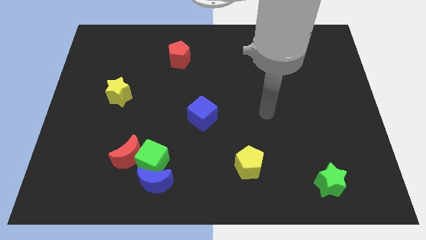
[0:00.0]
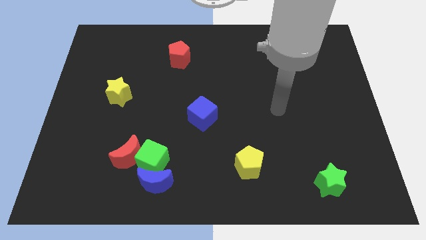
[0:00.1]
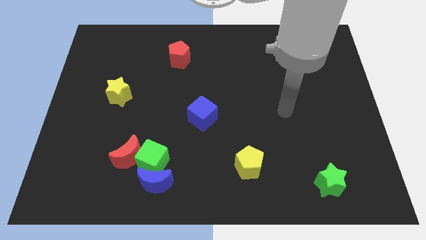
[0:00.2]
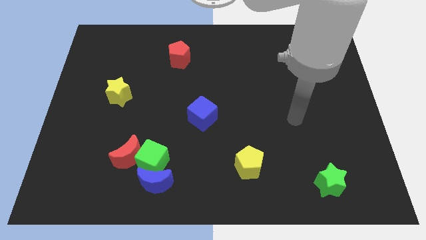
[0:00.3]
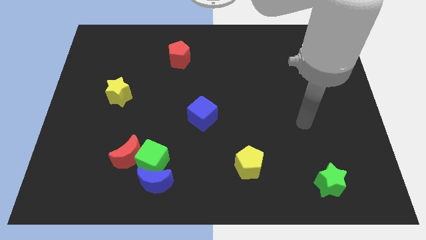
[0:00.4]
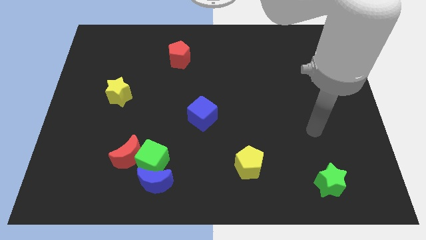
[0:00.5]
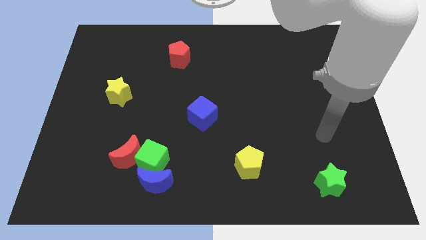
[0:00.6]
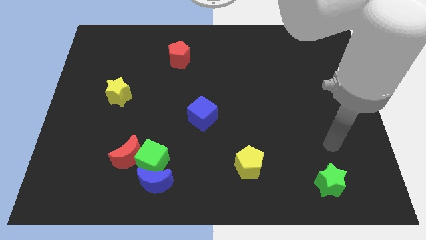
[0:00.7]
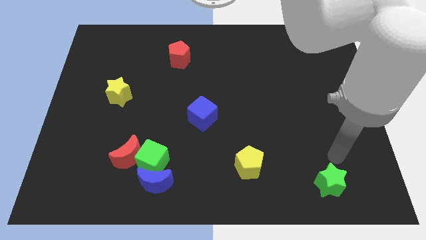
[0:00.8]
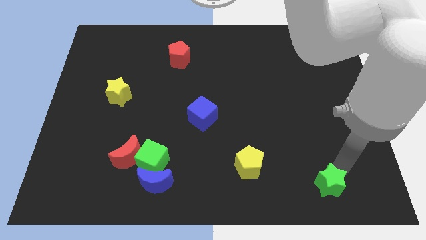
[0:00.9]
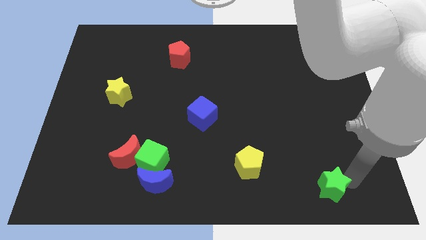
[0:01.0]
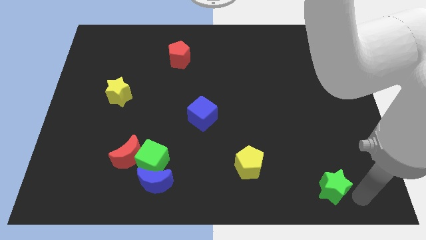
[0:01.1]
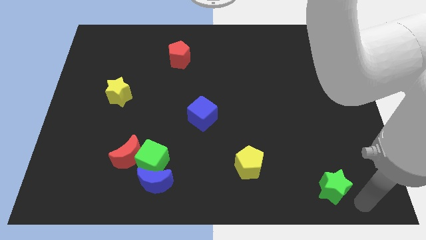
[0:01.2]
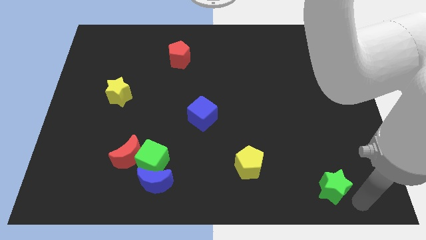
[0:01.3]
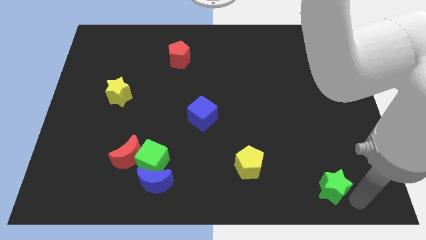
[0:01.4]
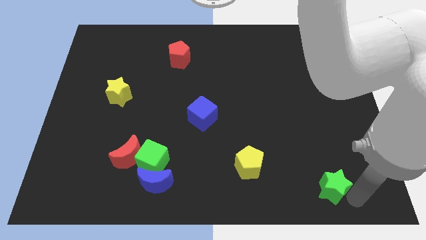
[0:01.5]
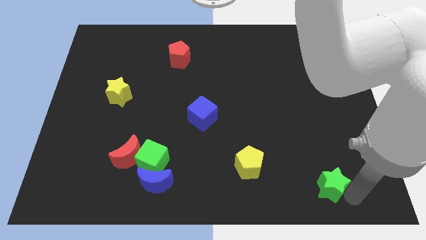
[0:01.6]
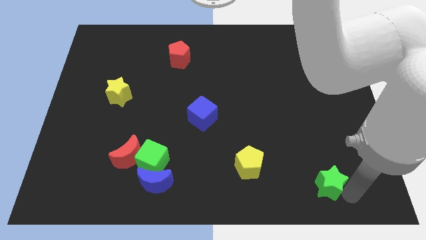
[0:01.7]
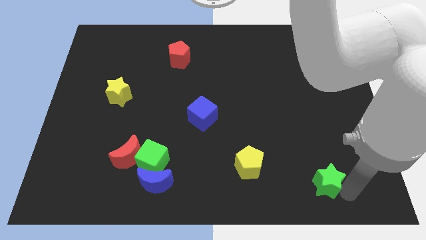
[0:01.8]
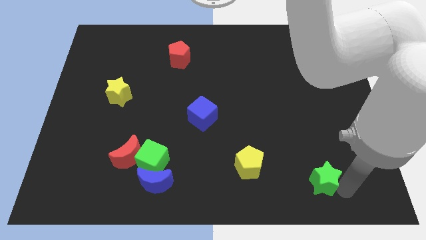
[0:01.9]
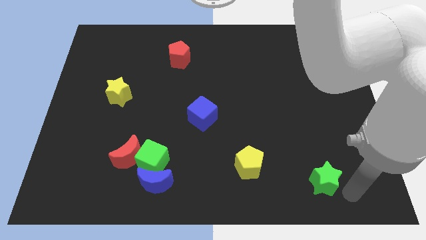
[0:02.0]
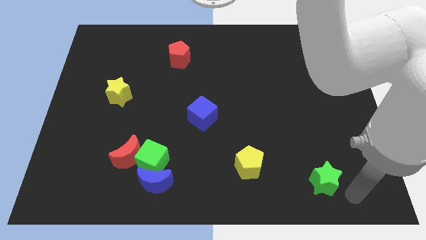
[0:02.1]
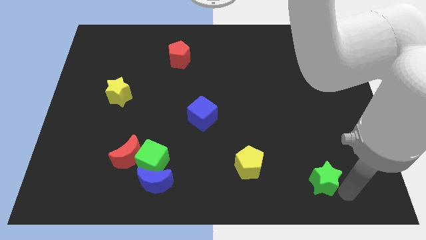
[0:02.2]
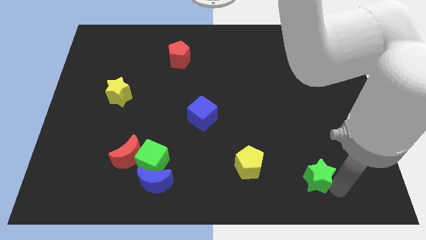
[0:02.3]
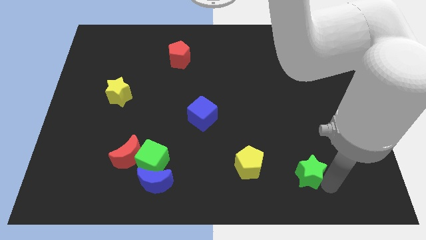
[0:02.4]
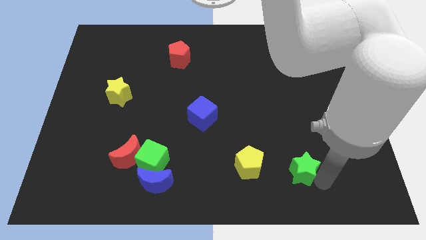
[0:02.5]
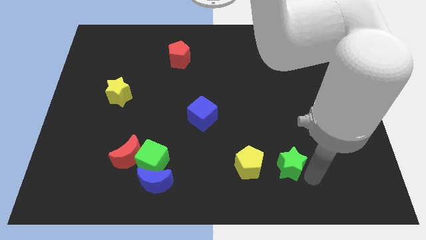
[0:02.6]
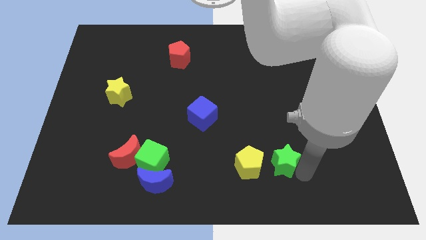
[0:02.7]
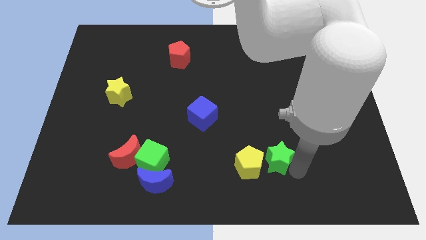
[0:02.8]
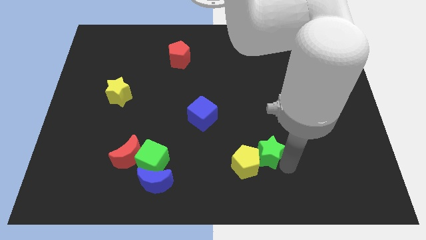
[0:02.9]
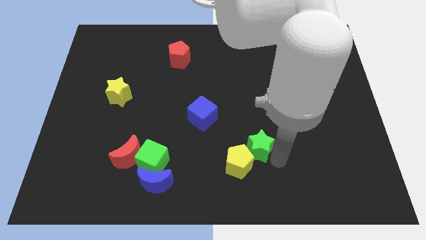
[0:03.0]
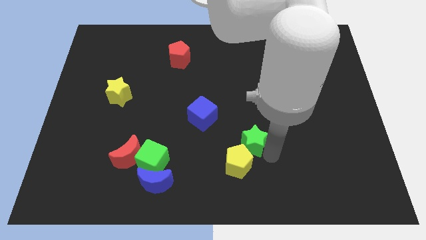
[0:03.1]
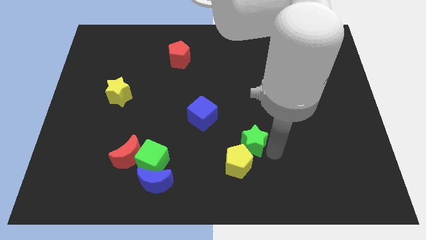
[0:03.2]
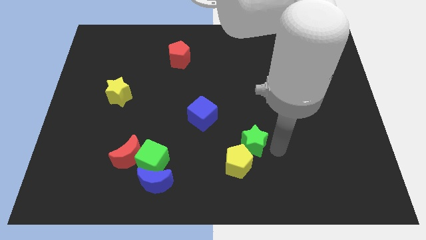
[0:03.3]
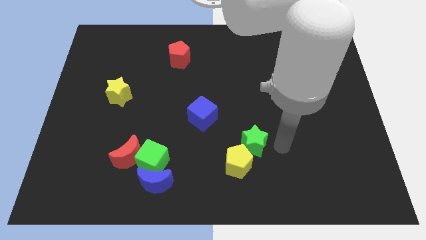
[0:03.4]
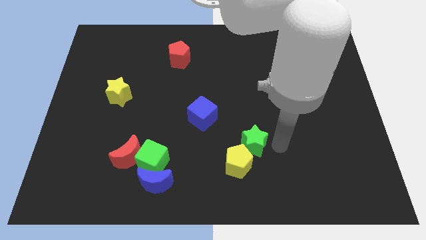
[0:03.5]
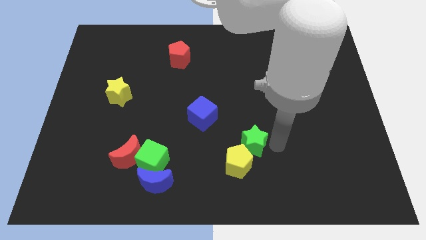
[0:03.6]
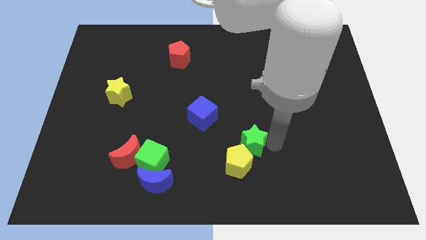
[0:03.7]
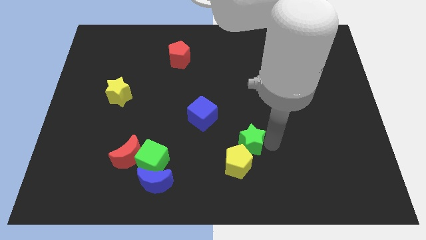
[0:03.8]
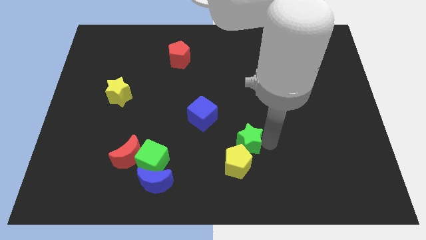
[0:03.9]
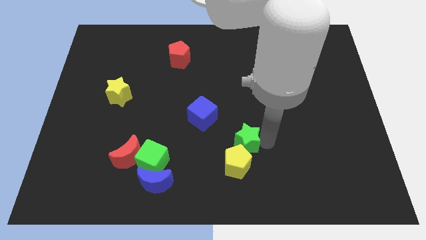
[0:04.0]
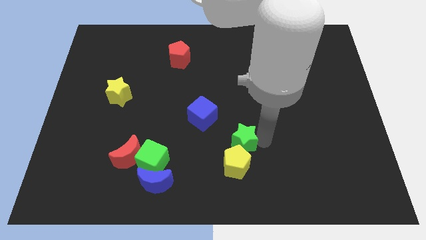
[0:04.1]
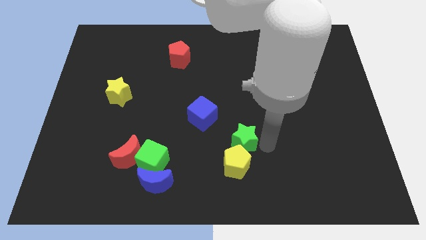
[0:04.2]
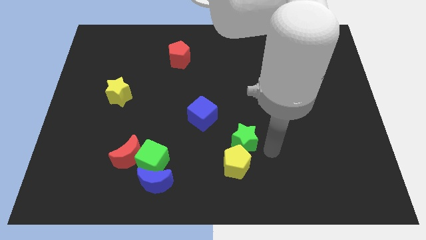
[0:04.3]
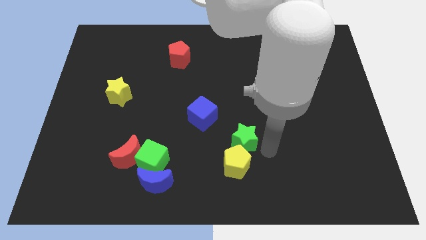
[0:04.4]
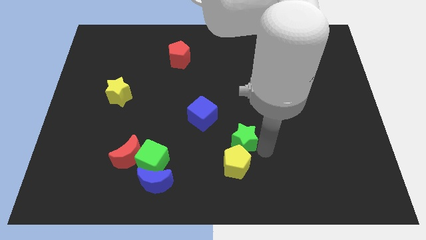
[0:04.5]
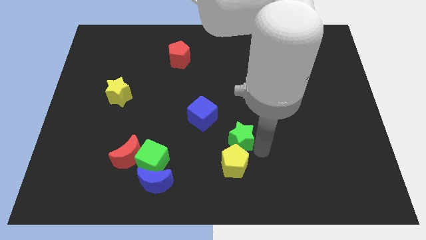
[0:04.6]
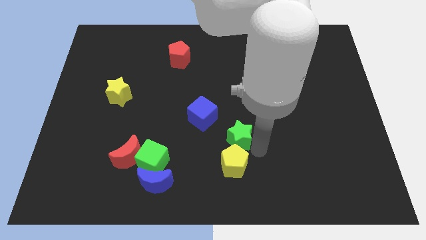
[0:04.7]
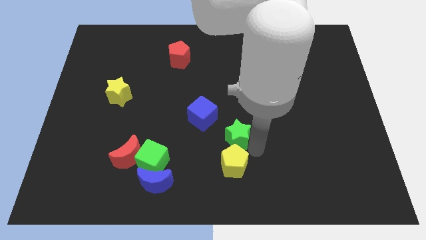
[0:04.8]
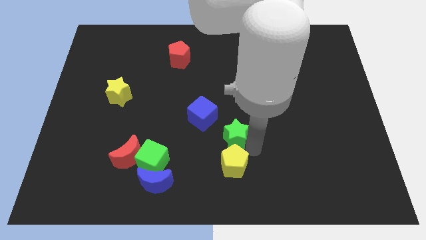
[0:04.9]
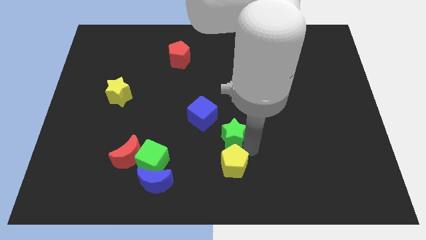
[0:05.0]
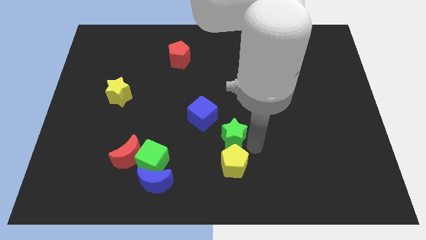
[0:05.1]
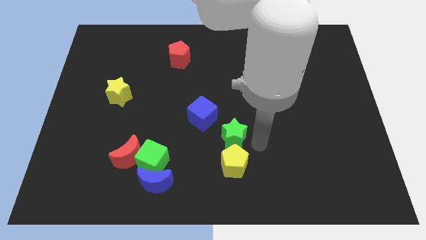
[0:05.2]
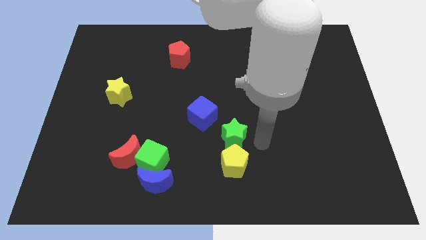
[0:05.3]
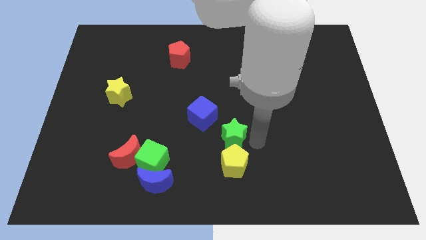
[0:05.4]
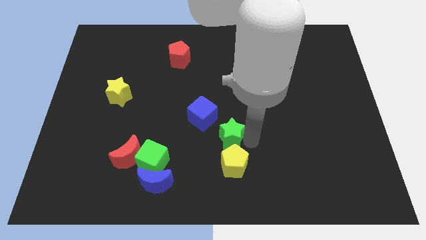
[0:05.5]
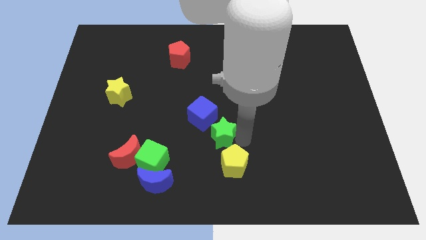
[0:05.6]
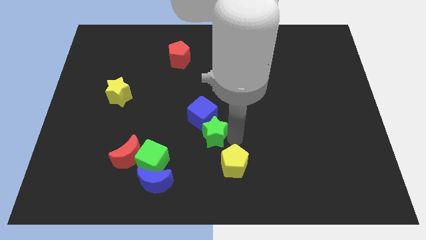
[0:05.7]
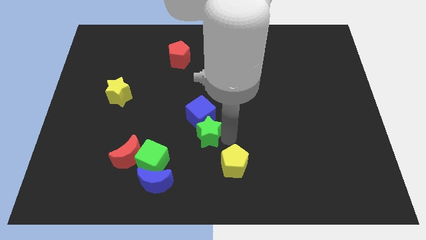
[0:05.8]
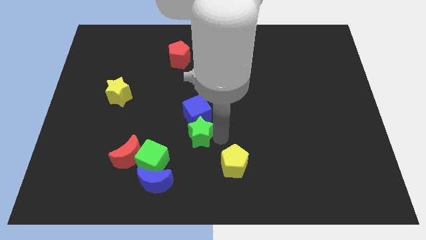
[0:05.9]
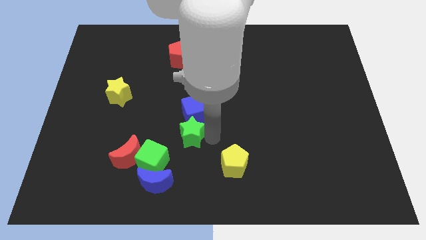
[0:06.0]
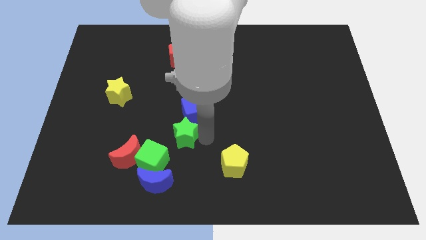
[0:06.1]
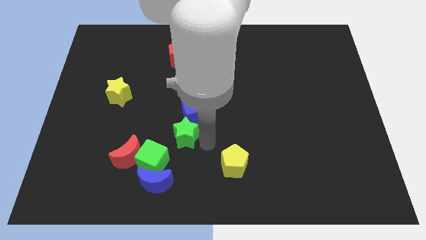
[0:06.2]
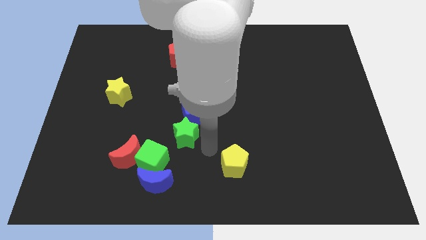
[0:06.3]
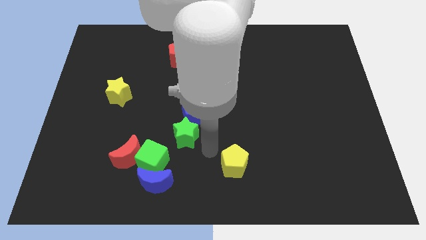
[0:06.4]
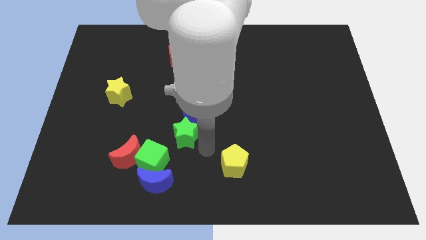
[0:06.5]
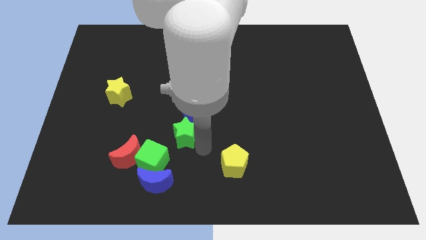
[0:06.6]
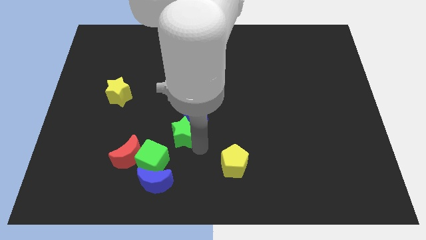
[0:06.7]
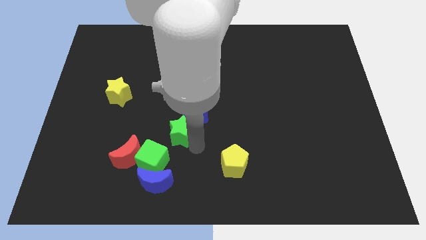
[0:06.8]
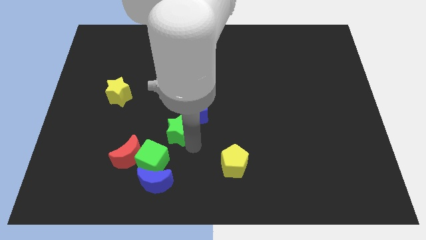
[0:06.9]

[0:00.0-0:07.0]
slide the green star above the green cube
